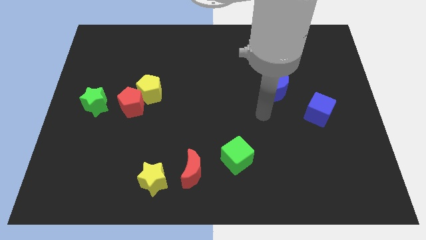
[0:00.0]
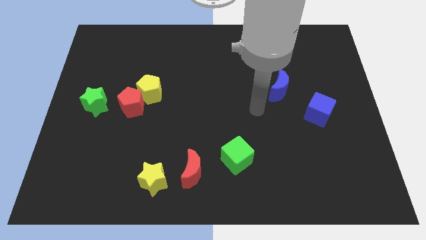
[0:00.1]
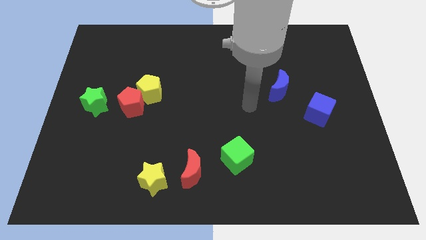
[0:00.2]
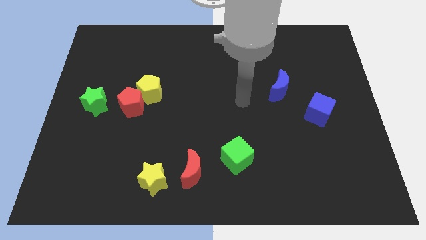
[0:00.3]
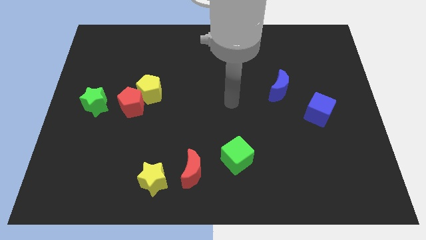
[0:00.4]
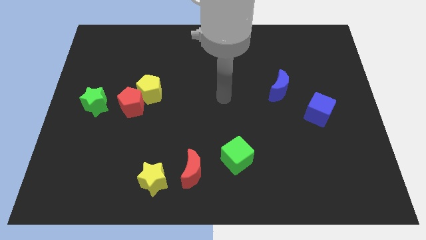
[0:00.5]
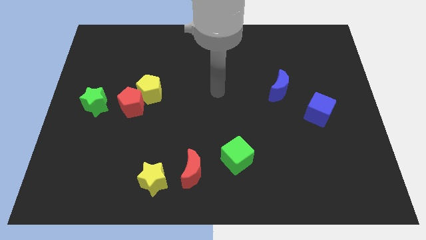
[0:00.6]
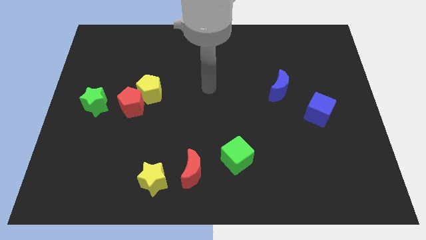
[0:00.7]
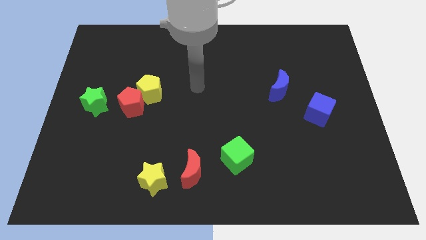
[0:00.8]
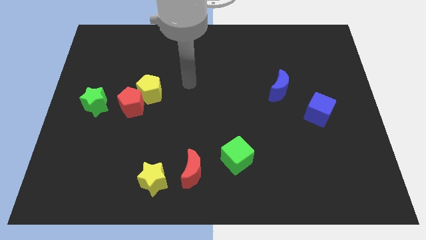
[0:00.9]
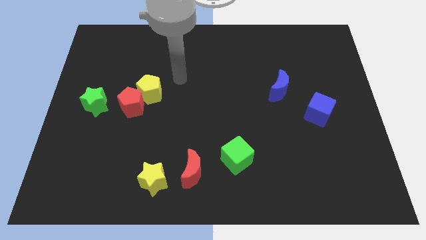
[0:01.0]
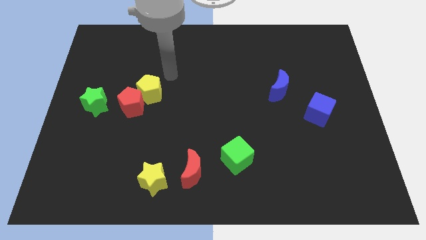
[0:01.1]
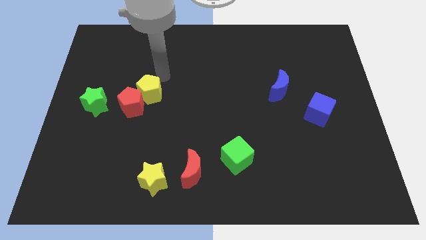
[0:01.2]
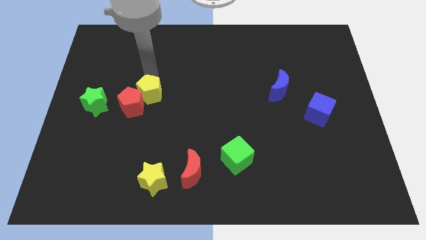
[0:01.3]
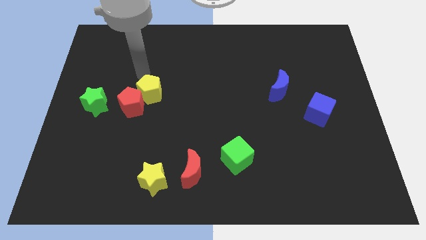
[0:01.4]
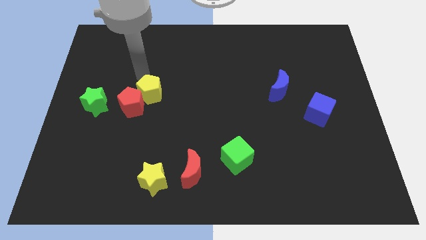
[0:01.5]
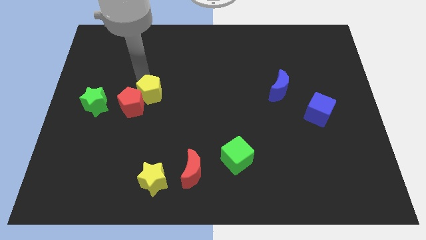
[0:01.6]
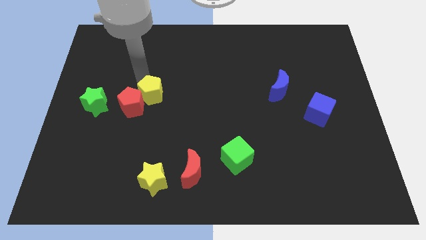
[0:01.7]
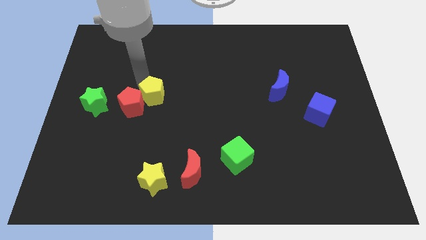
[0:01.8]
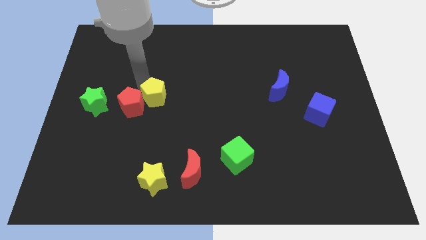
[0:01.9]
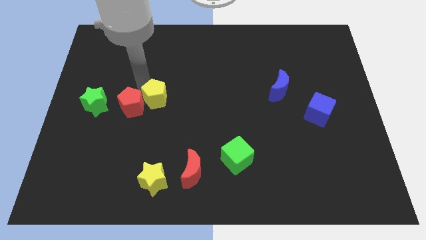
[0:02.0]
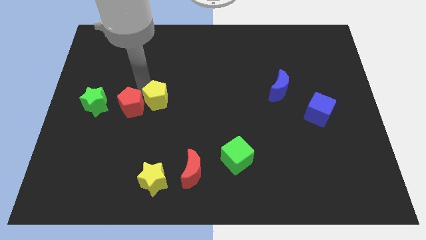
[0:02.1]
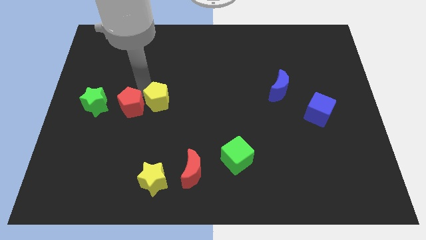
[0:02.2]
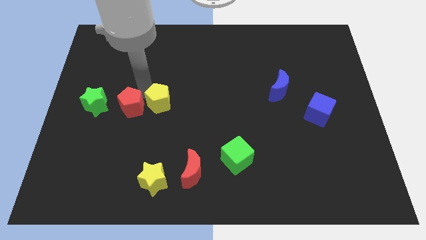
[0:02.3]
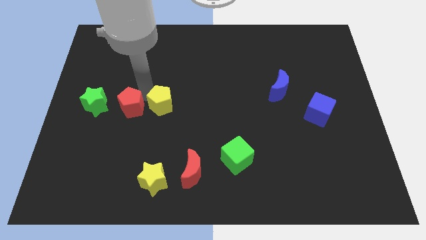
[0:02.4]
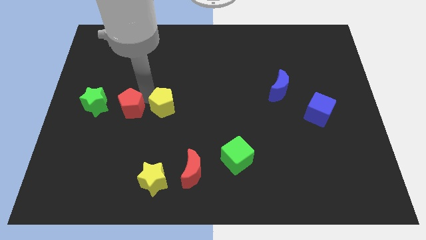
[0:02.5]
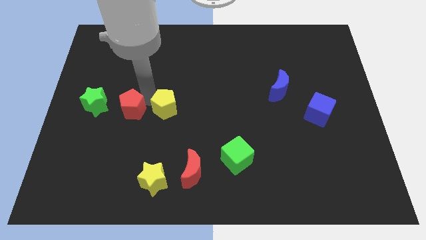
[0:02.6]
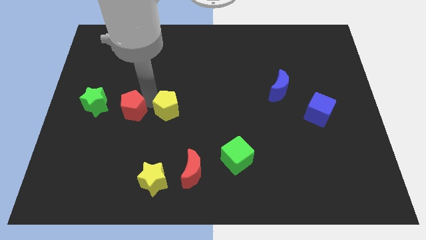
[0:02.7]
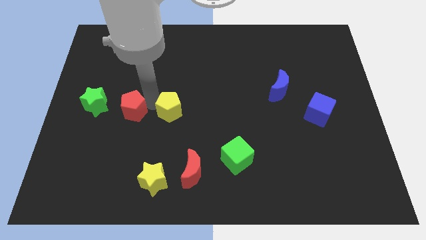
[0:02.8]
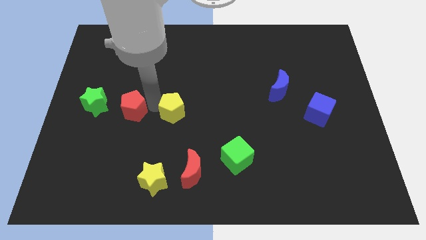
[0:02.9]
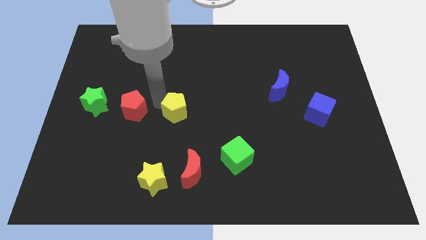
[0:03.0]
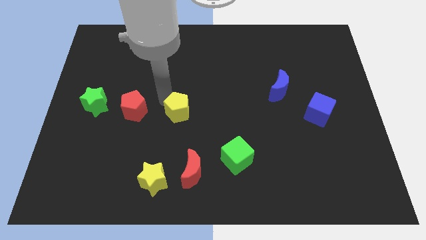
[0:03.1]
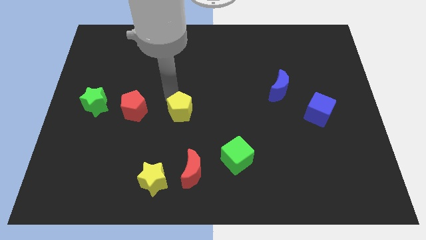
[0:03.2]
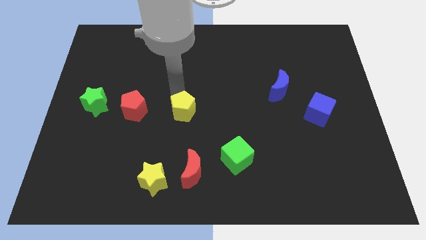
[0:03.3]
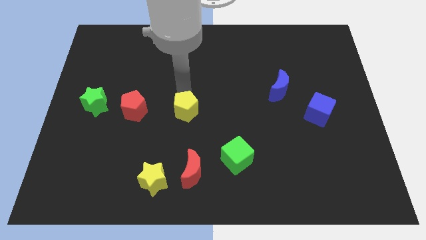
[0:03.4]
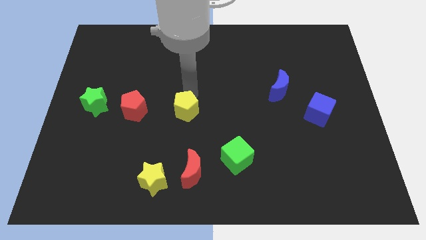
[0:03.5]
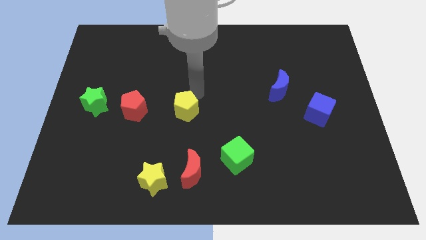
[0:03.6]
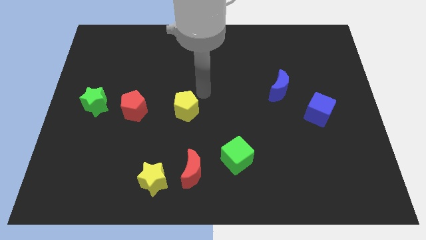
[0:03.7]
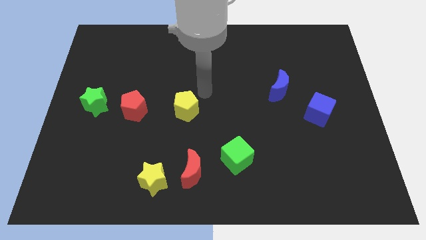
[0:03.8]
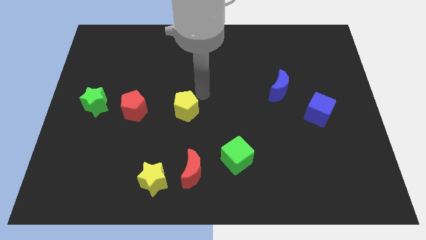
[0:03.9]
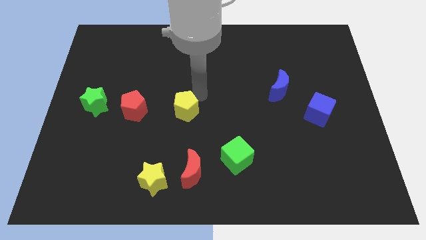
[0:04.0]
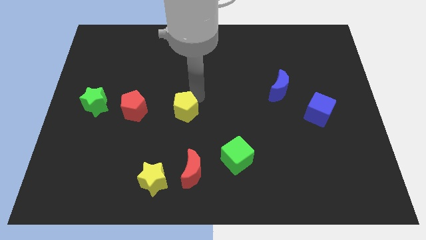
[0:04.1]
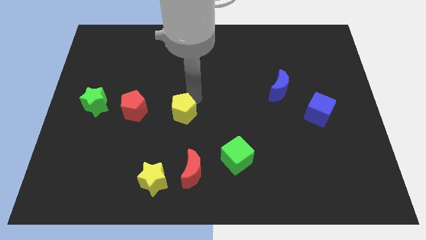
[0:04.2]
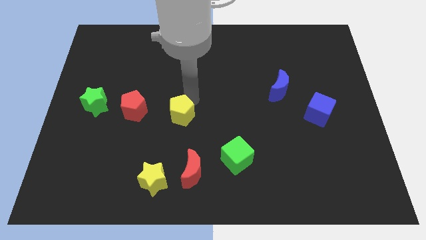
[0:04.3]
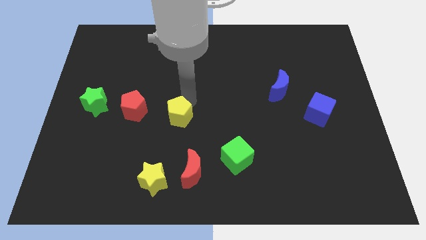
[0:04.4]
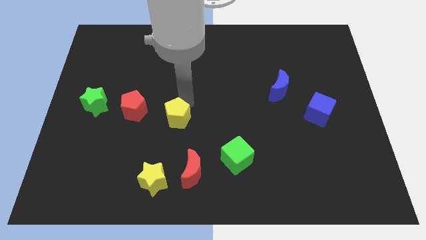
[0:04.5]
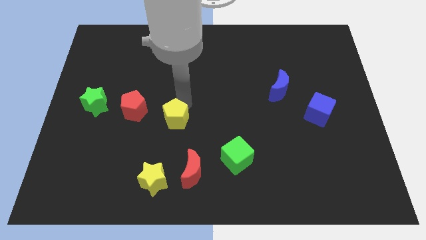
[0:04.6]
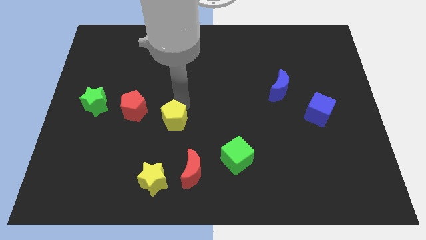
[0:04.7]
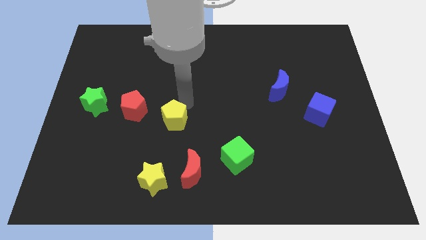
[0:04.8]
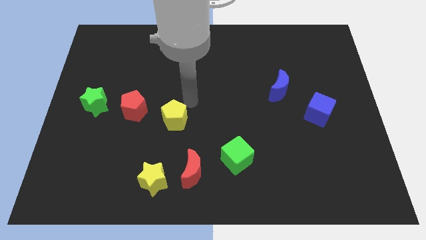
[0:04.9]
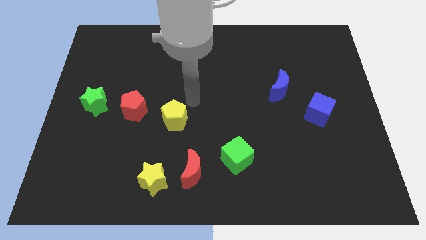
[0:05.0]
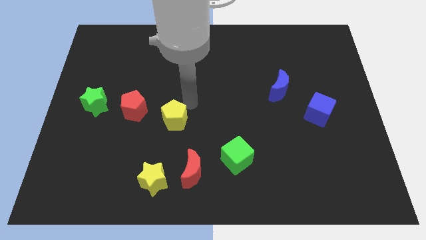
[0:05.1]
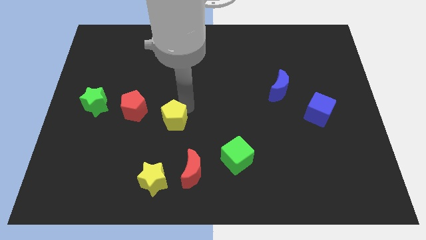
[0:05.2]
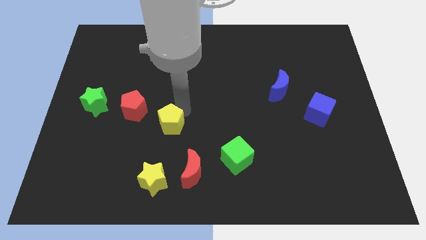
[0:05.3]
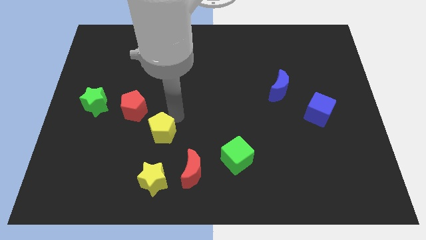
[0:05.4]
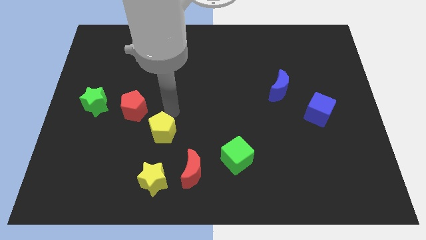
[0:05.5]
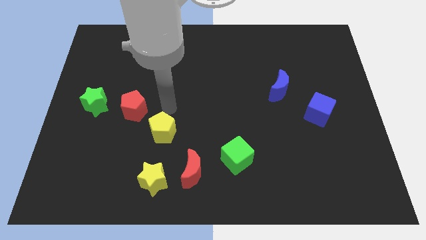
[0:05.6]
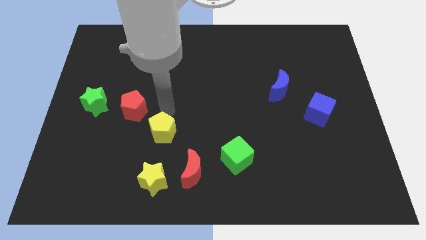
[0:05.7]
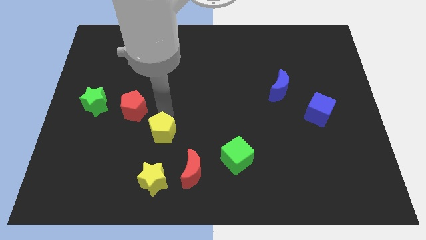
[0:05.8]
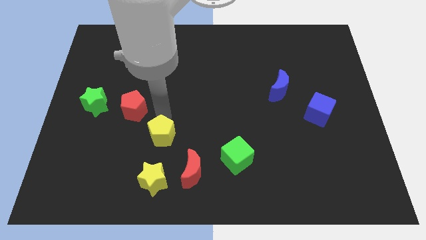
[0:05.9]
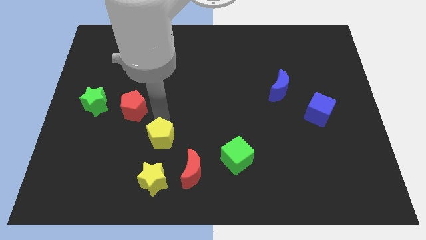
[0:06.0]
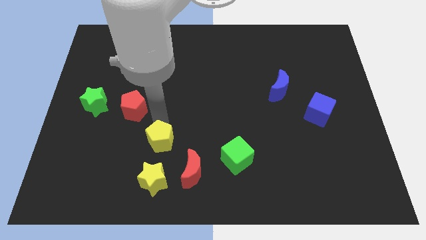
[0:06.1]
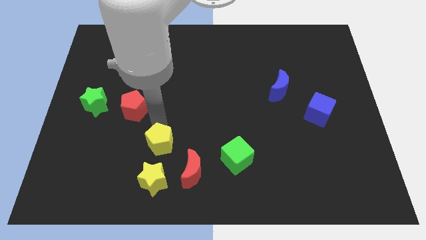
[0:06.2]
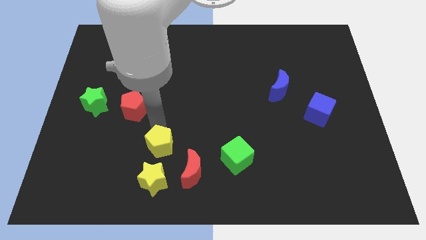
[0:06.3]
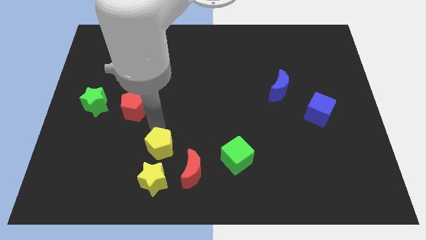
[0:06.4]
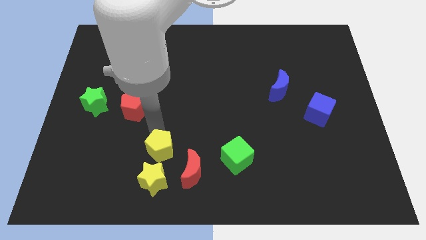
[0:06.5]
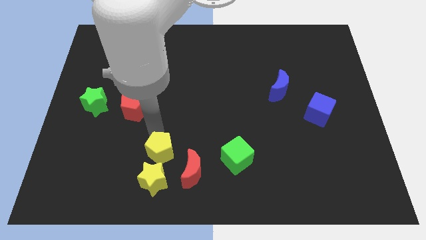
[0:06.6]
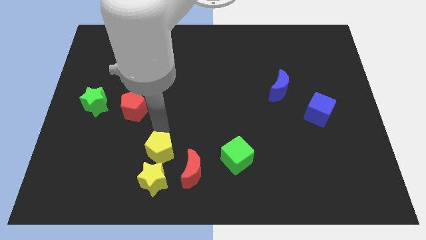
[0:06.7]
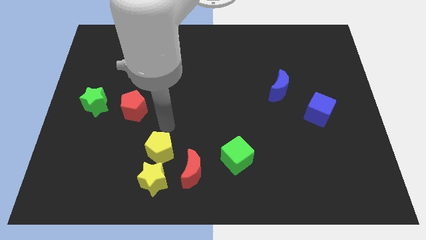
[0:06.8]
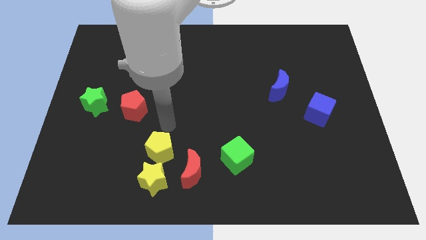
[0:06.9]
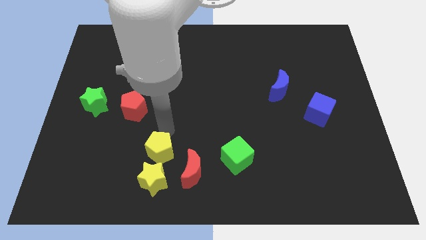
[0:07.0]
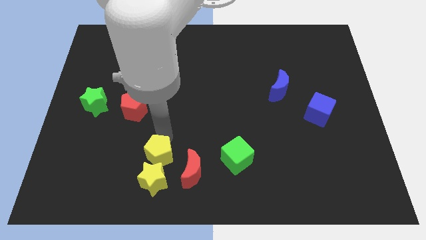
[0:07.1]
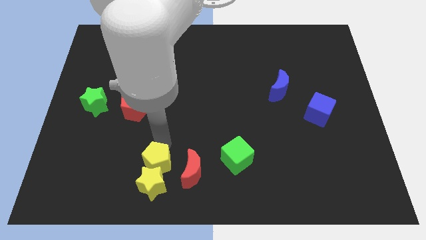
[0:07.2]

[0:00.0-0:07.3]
put the yellow pentagon towards the yellow star

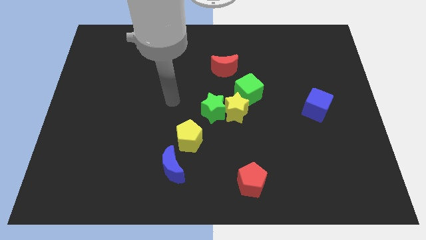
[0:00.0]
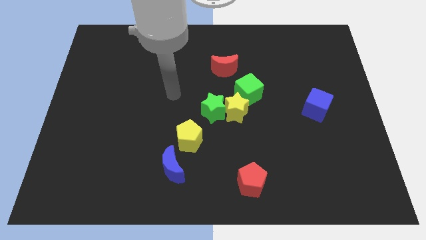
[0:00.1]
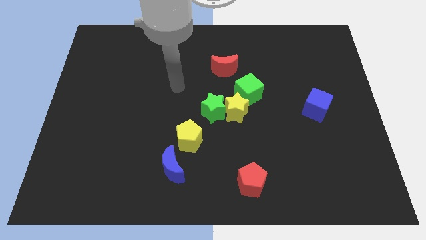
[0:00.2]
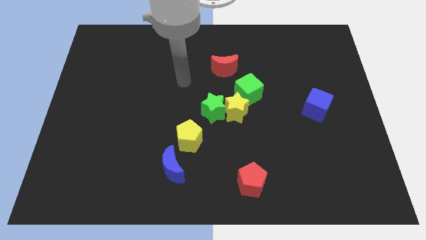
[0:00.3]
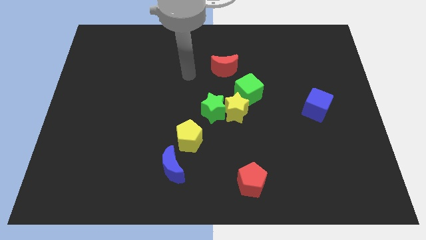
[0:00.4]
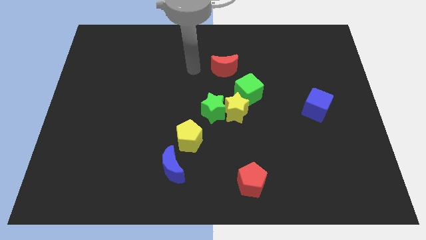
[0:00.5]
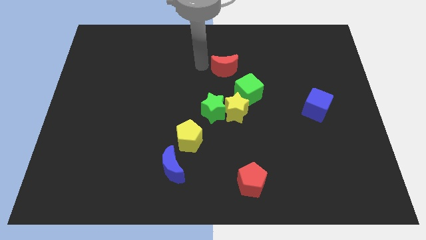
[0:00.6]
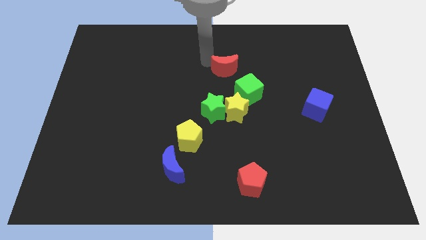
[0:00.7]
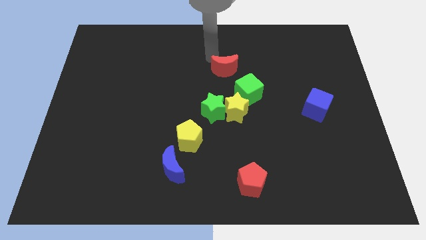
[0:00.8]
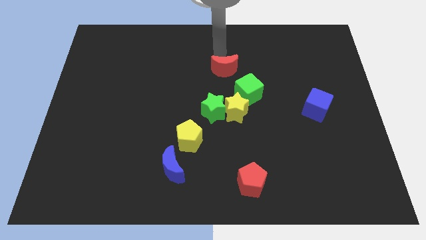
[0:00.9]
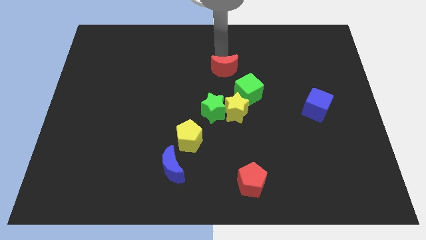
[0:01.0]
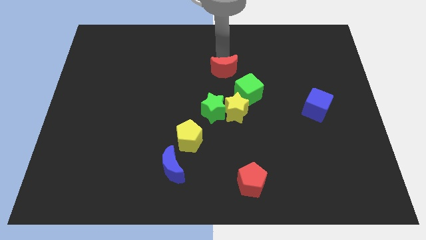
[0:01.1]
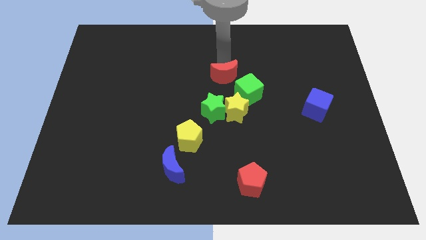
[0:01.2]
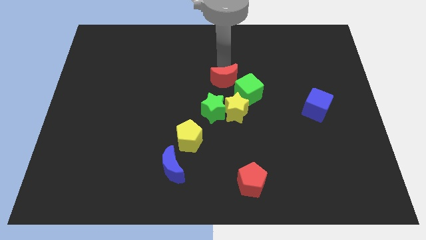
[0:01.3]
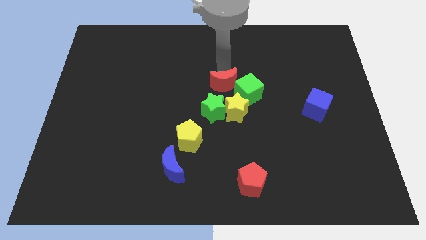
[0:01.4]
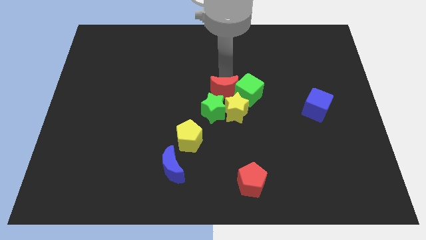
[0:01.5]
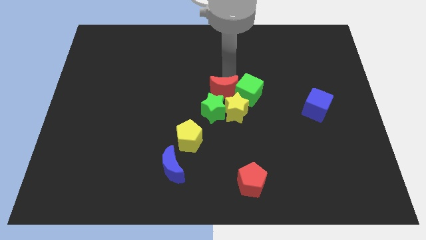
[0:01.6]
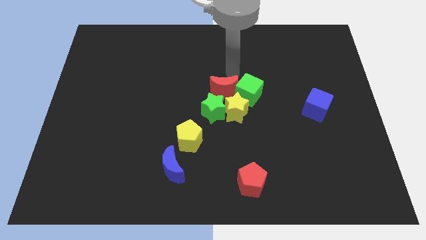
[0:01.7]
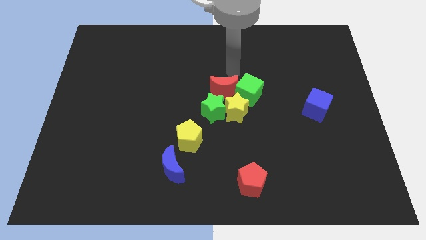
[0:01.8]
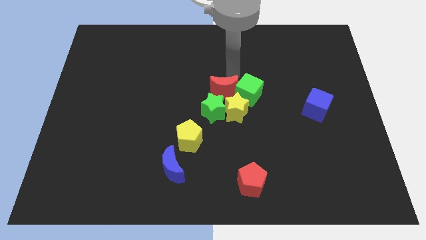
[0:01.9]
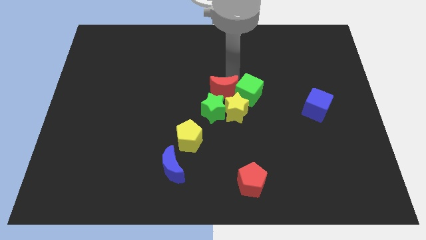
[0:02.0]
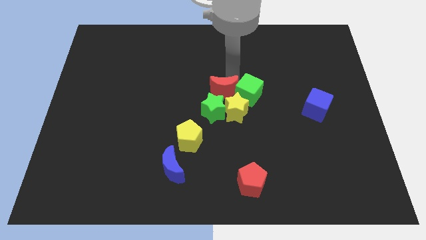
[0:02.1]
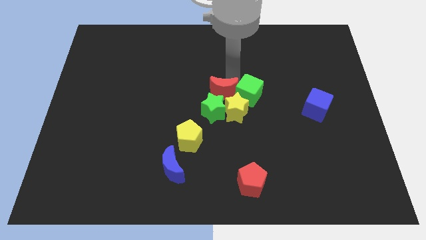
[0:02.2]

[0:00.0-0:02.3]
put the red moon towards the green star
